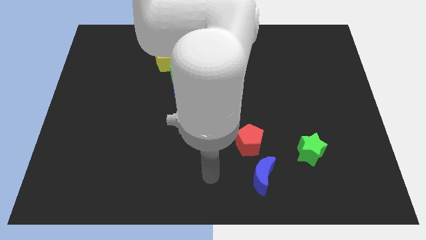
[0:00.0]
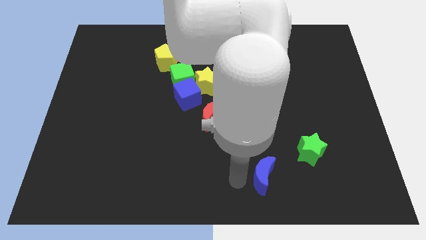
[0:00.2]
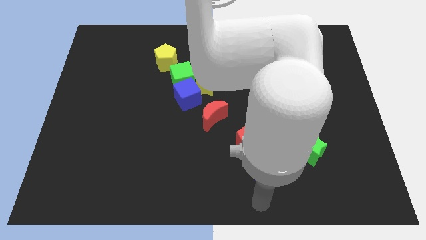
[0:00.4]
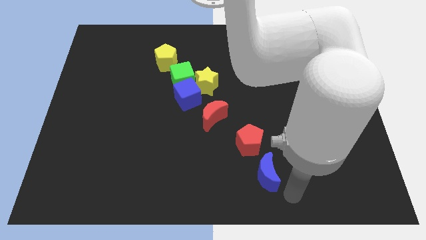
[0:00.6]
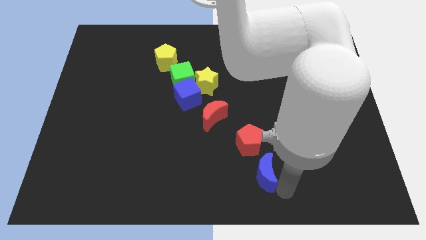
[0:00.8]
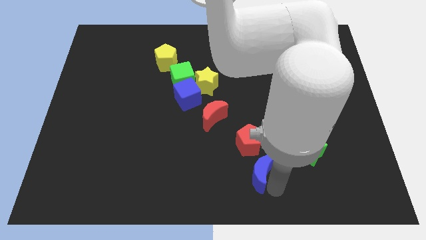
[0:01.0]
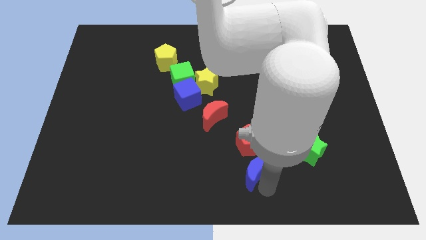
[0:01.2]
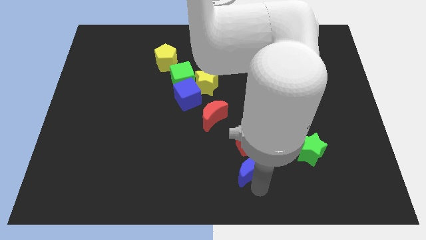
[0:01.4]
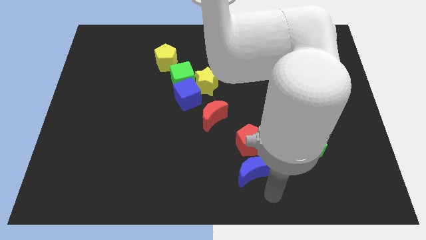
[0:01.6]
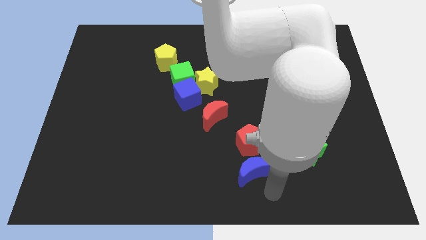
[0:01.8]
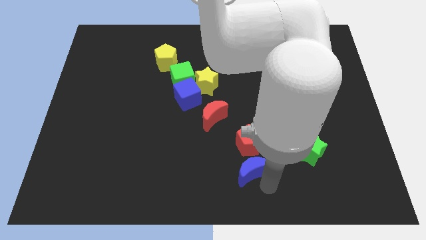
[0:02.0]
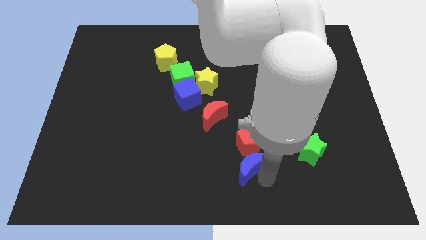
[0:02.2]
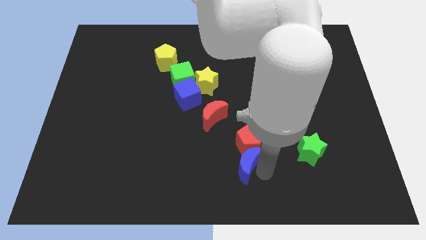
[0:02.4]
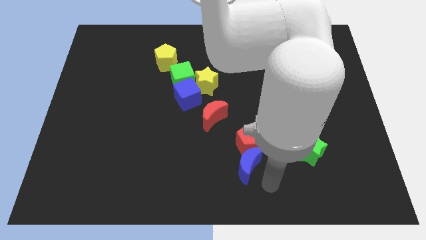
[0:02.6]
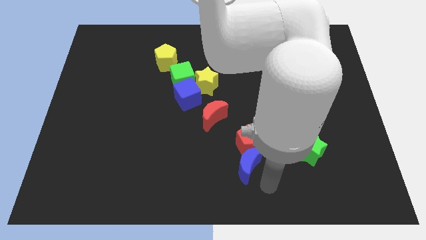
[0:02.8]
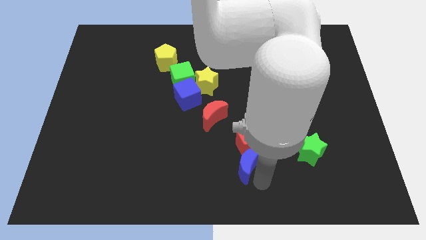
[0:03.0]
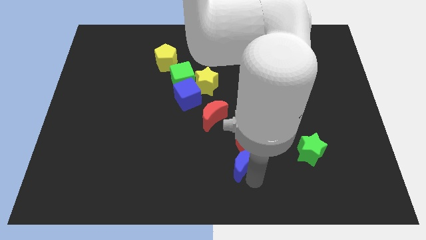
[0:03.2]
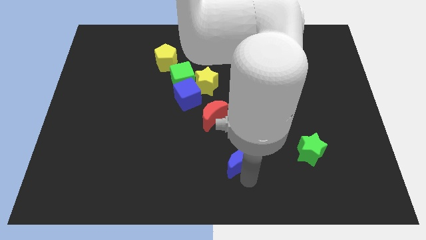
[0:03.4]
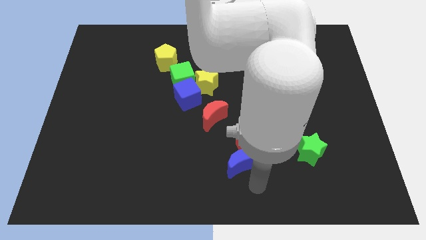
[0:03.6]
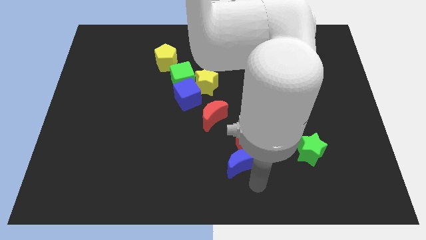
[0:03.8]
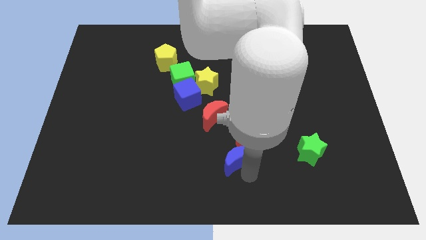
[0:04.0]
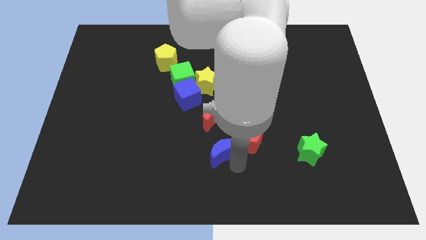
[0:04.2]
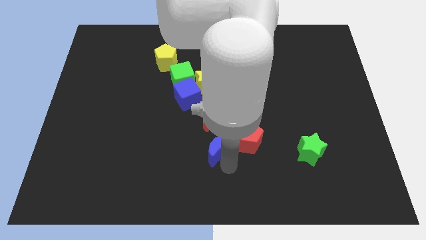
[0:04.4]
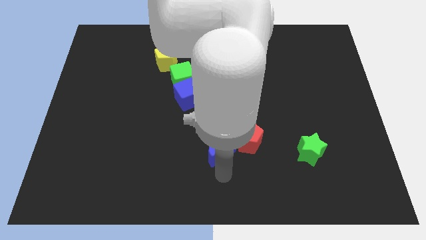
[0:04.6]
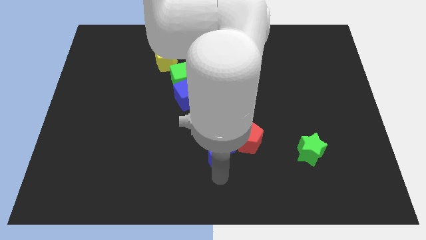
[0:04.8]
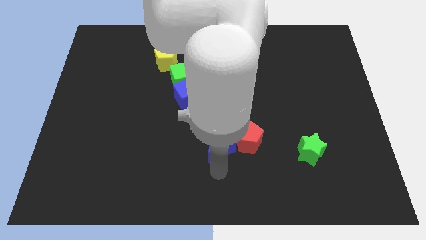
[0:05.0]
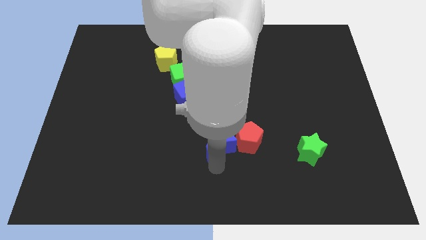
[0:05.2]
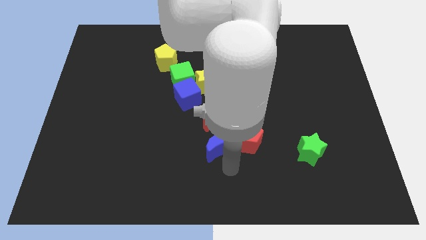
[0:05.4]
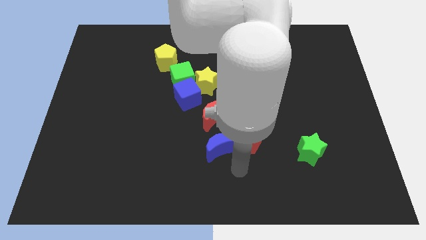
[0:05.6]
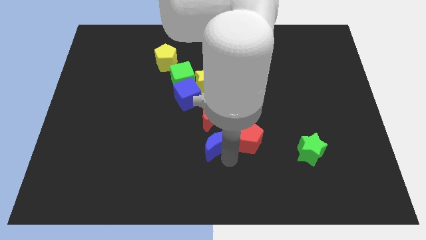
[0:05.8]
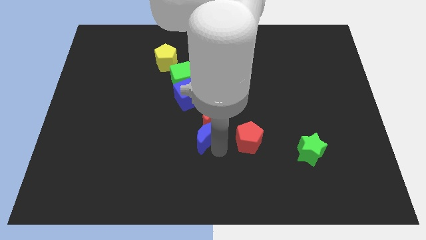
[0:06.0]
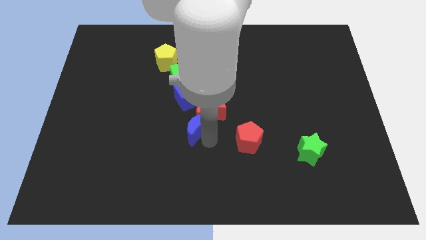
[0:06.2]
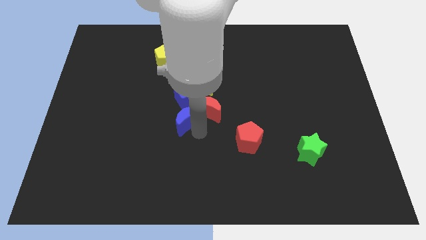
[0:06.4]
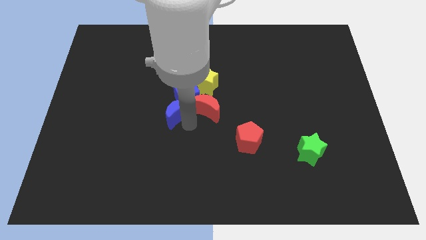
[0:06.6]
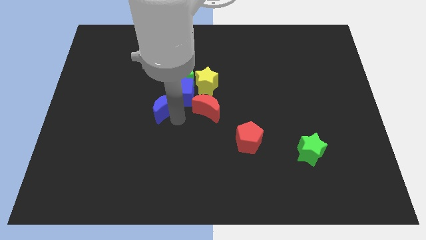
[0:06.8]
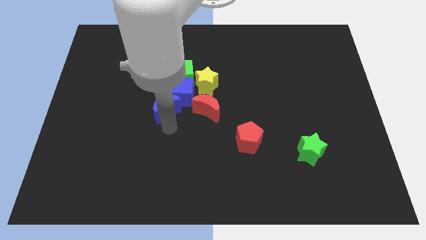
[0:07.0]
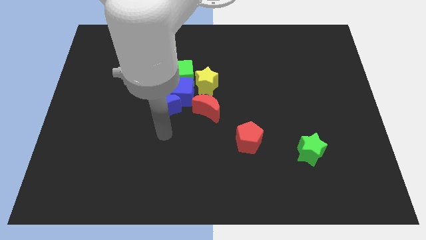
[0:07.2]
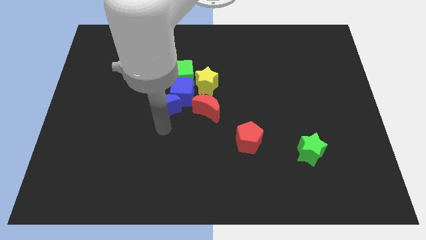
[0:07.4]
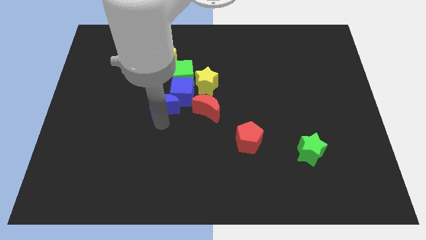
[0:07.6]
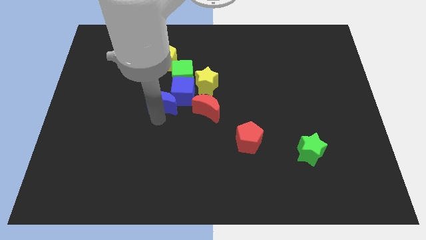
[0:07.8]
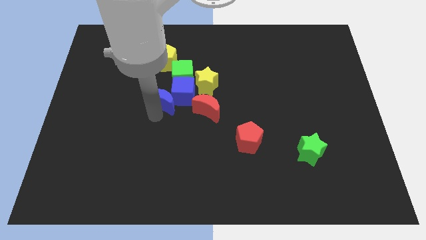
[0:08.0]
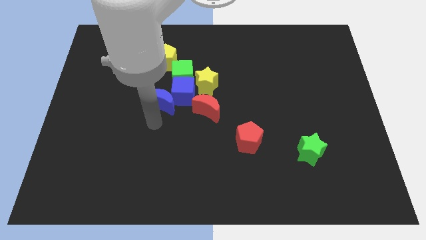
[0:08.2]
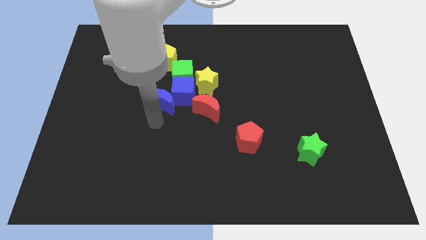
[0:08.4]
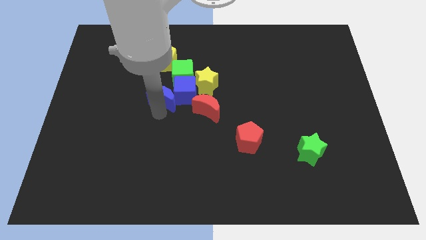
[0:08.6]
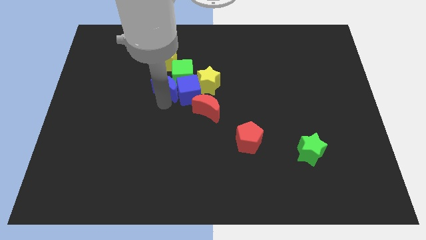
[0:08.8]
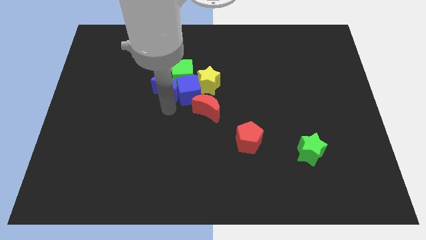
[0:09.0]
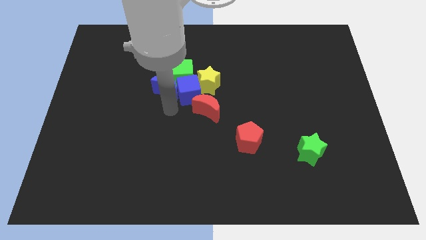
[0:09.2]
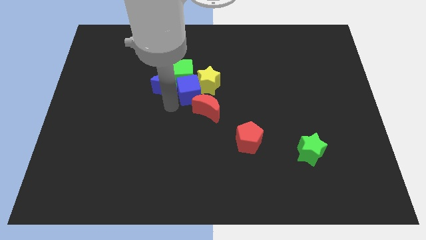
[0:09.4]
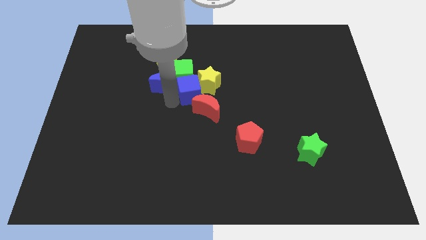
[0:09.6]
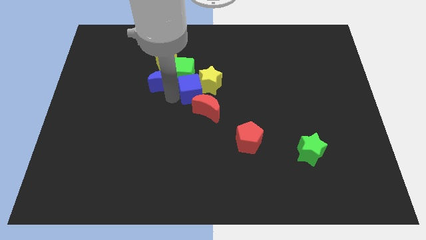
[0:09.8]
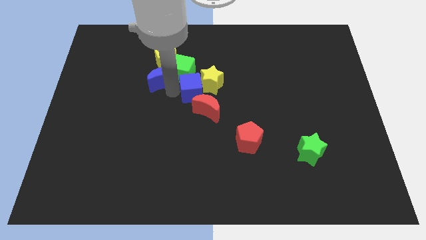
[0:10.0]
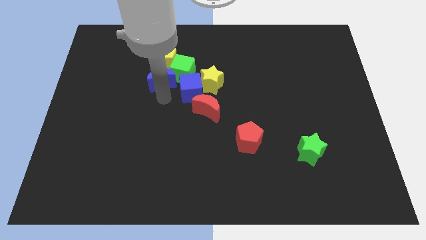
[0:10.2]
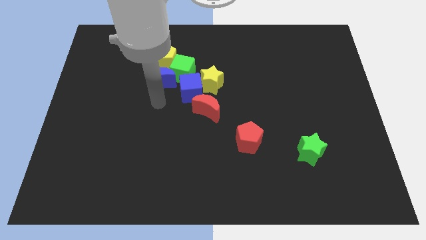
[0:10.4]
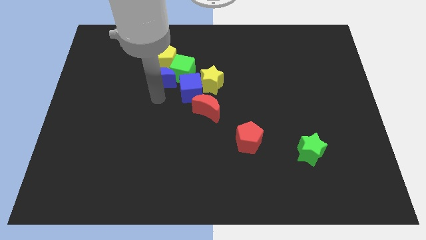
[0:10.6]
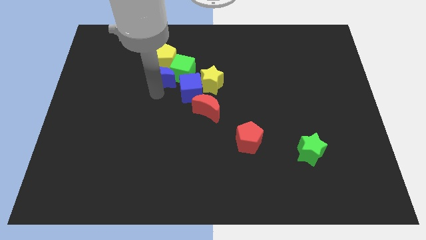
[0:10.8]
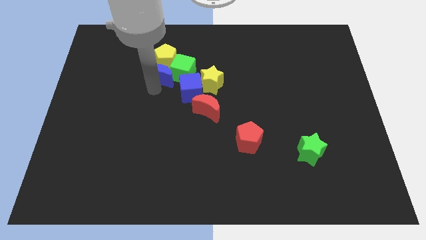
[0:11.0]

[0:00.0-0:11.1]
move the blue moon next to the yellow pentagon

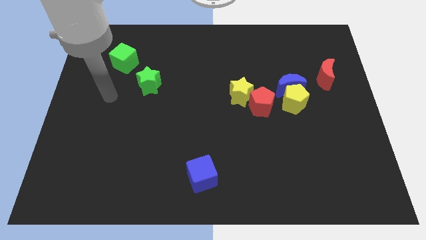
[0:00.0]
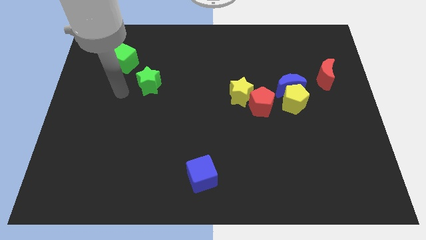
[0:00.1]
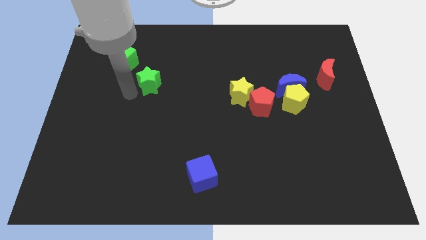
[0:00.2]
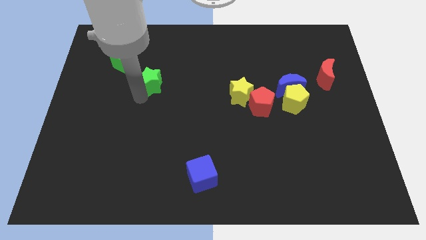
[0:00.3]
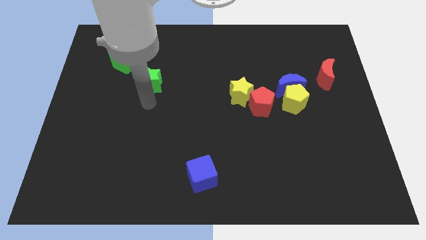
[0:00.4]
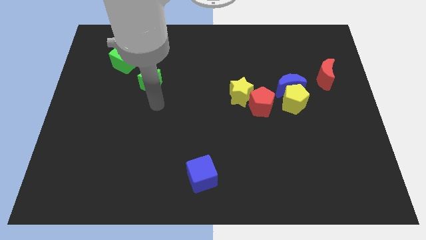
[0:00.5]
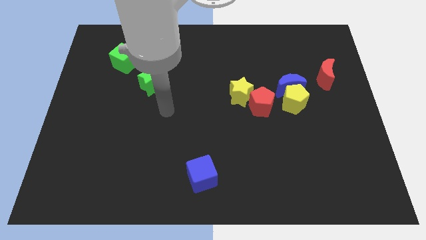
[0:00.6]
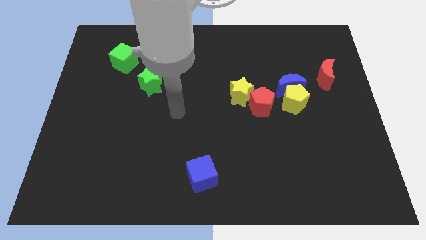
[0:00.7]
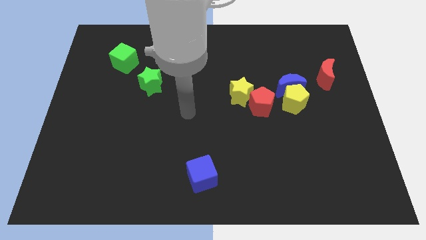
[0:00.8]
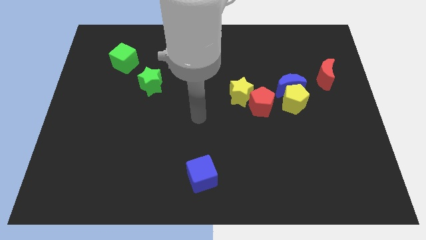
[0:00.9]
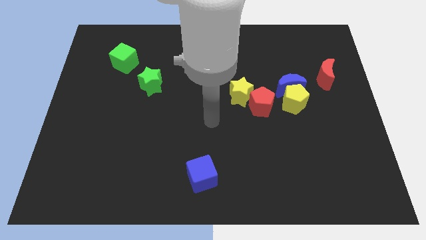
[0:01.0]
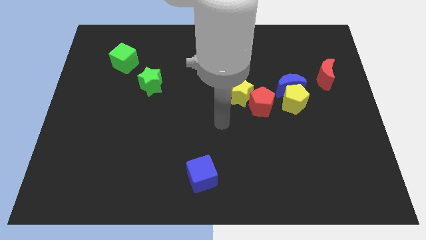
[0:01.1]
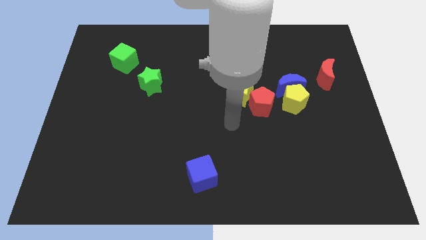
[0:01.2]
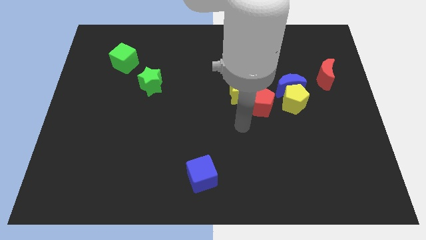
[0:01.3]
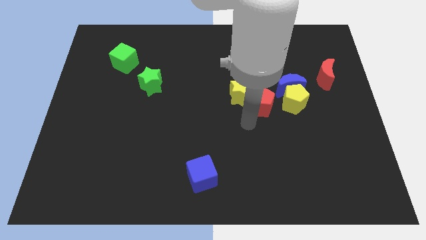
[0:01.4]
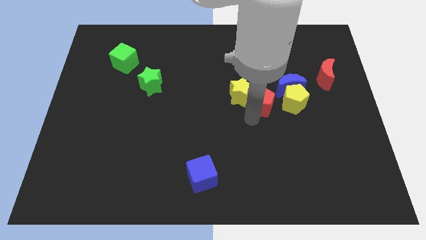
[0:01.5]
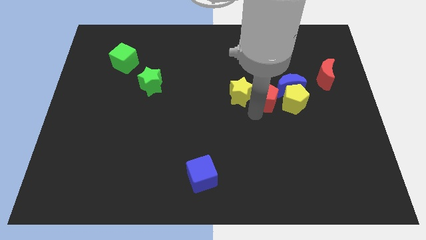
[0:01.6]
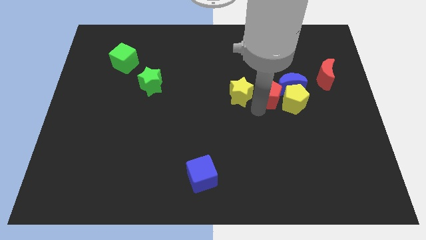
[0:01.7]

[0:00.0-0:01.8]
slide the red pentagon towards the blue moon

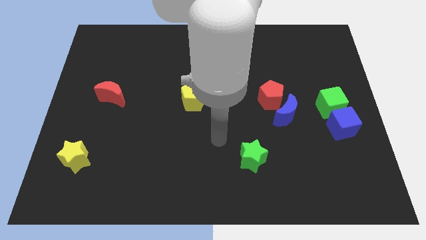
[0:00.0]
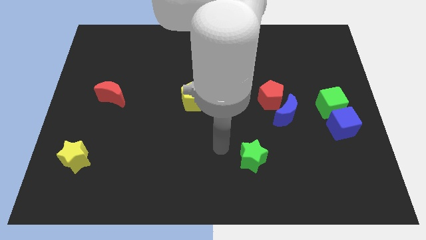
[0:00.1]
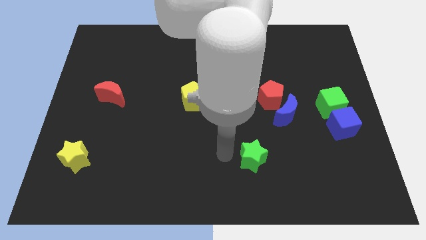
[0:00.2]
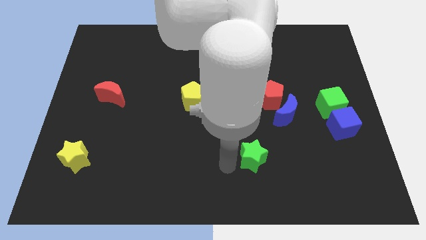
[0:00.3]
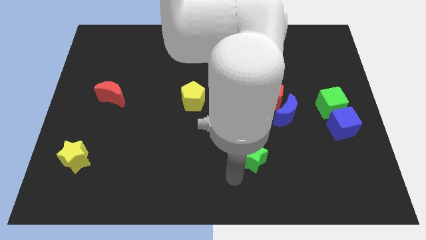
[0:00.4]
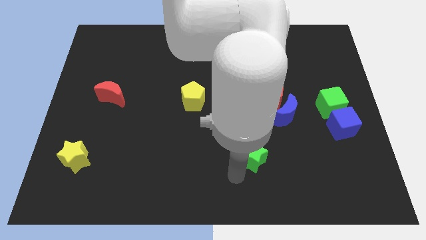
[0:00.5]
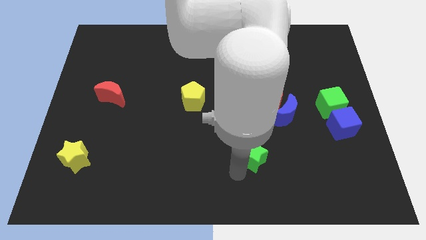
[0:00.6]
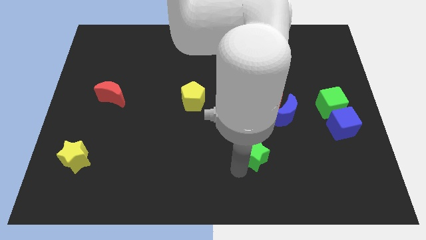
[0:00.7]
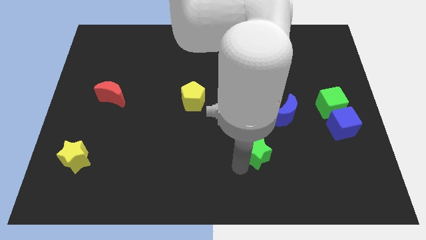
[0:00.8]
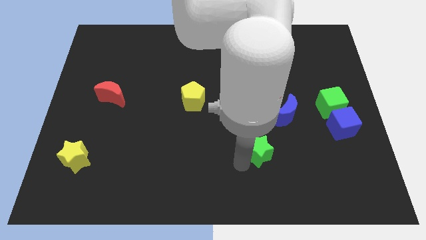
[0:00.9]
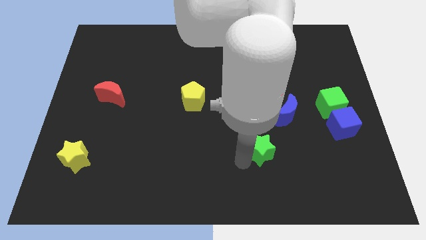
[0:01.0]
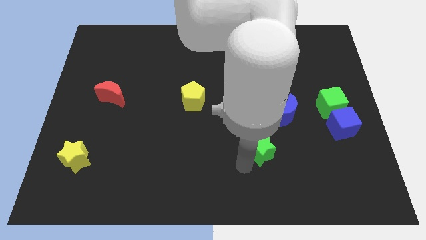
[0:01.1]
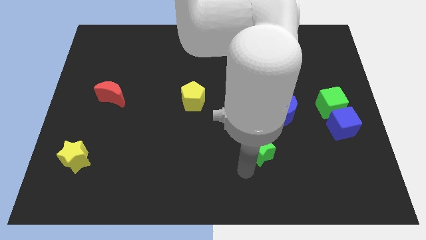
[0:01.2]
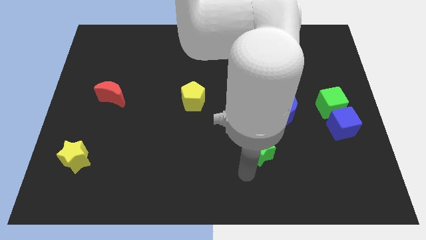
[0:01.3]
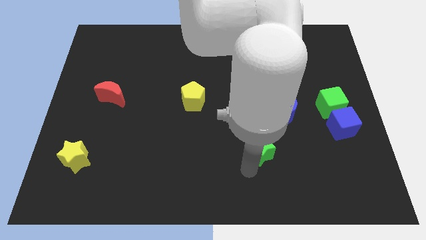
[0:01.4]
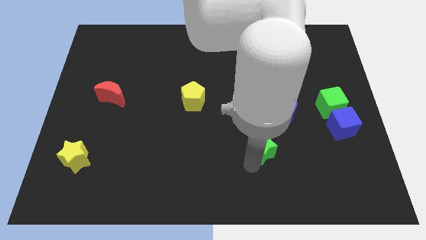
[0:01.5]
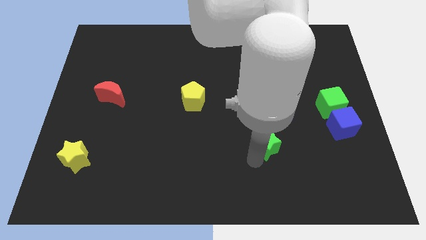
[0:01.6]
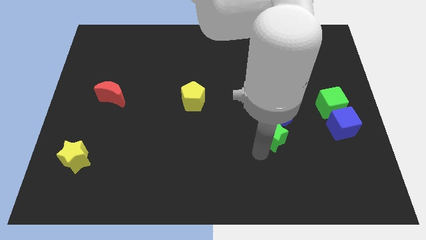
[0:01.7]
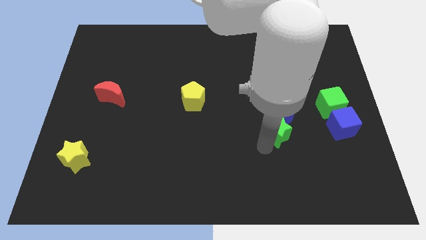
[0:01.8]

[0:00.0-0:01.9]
put the green star to the blue moon
